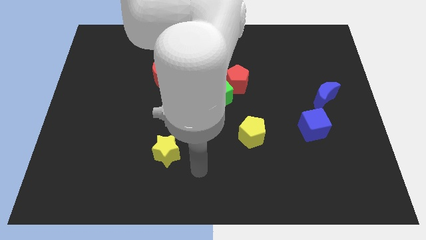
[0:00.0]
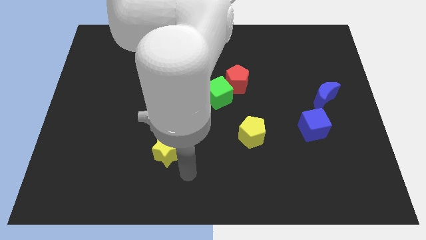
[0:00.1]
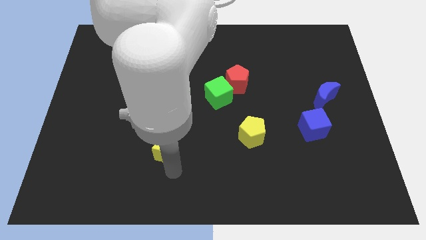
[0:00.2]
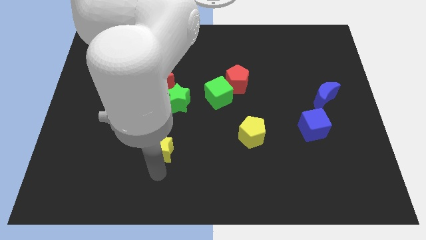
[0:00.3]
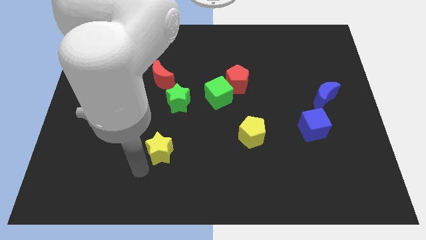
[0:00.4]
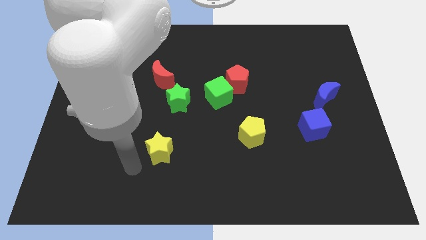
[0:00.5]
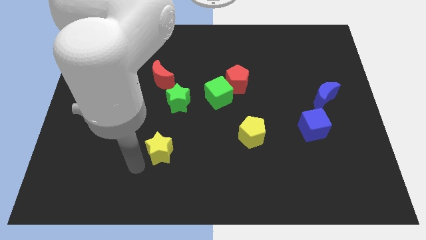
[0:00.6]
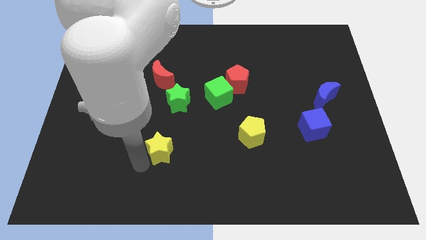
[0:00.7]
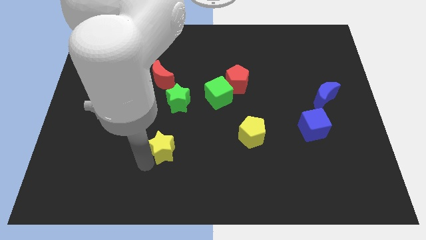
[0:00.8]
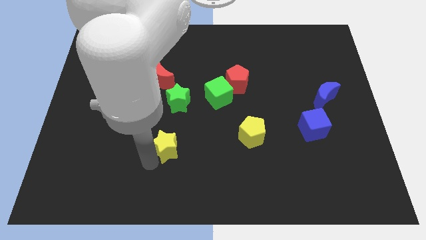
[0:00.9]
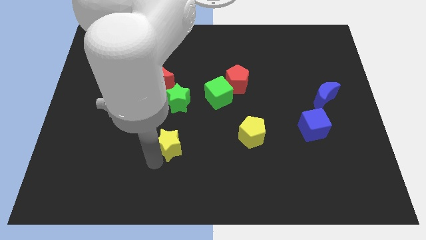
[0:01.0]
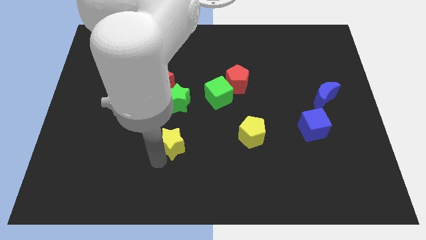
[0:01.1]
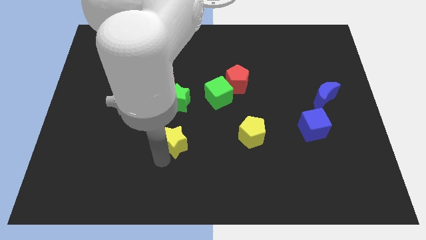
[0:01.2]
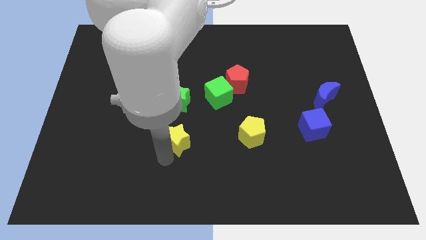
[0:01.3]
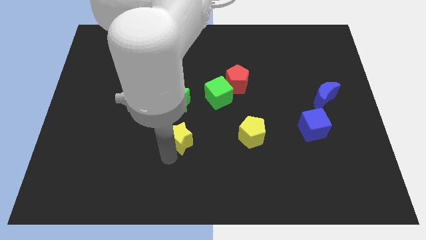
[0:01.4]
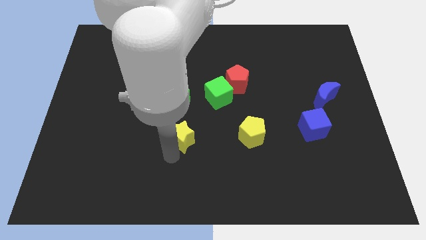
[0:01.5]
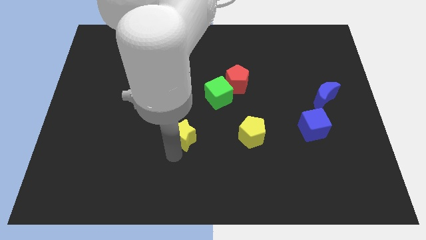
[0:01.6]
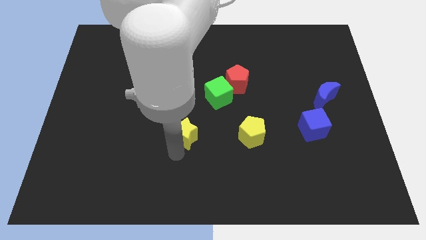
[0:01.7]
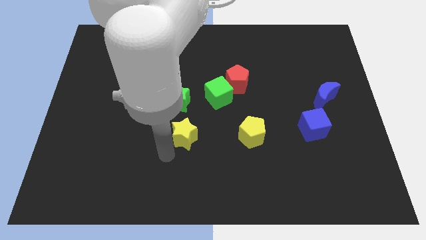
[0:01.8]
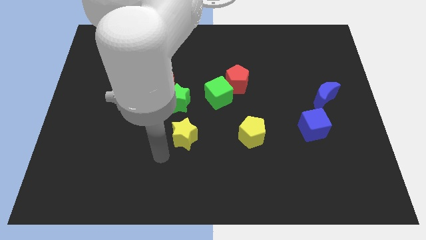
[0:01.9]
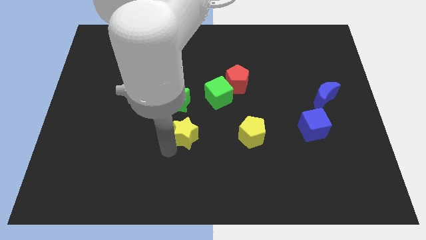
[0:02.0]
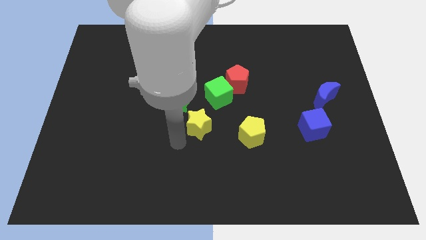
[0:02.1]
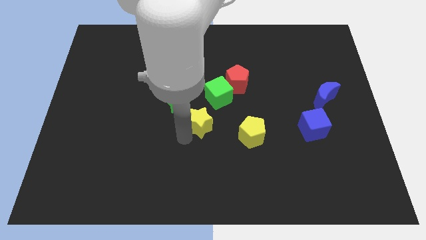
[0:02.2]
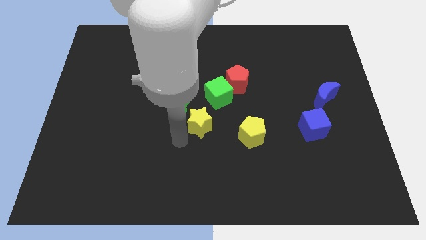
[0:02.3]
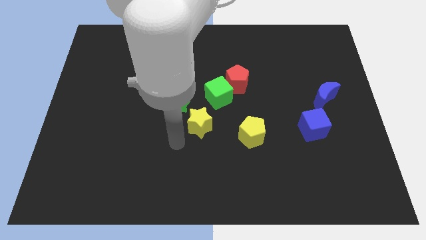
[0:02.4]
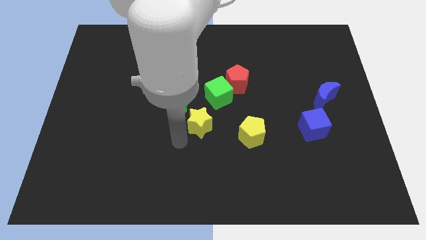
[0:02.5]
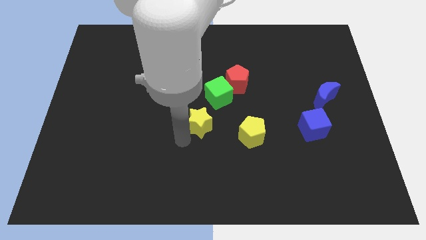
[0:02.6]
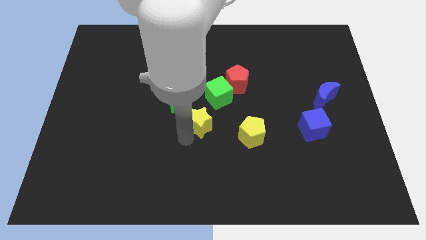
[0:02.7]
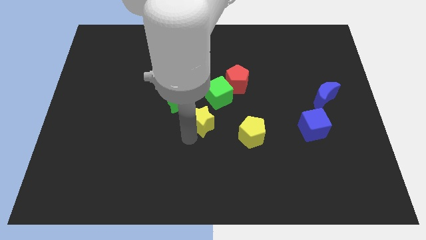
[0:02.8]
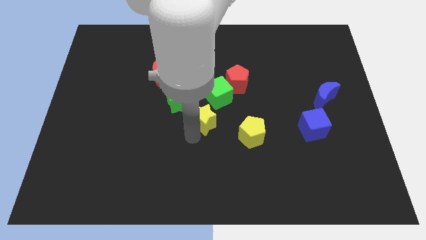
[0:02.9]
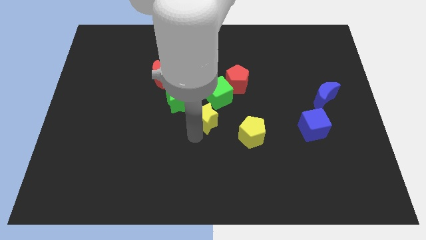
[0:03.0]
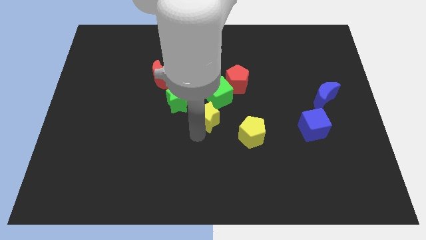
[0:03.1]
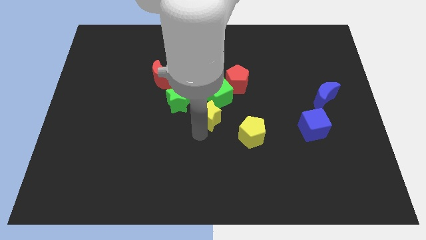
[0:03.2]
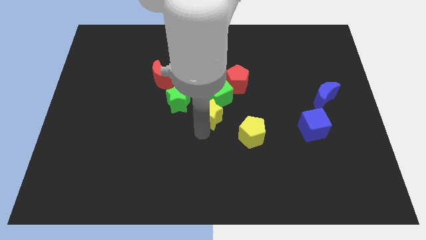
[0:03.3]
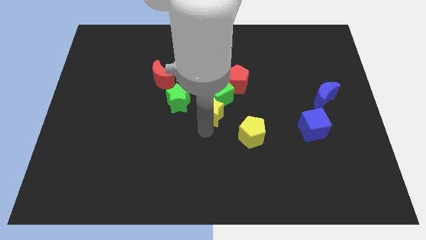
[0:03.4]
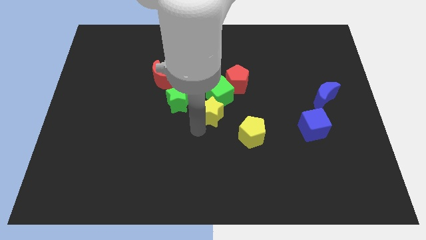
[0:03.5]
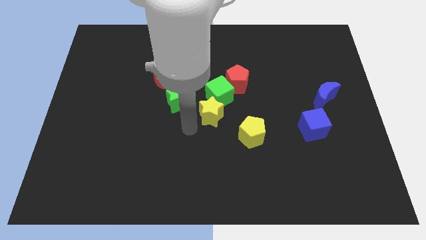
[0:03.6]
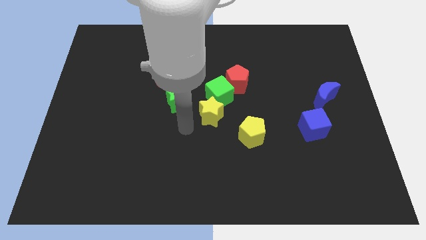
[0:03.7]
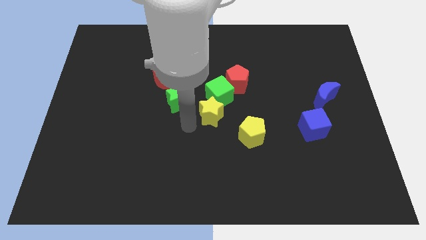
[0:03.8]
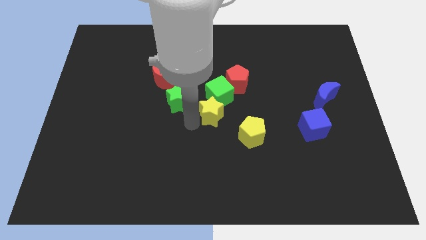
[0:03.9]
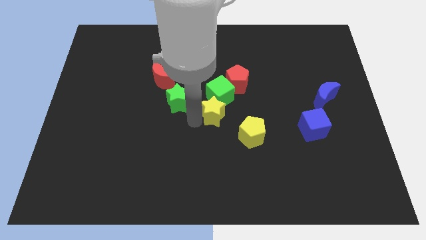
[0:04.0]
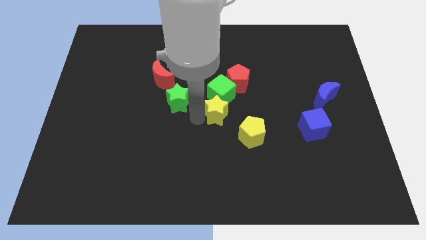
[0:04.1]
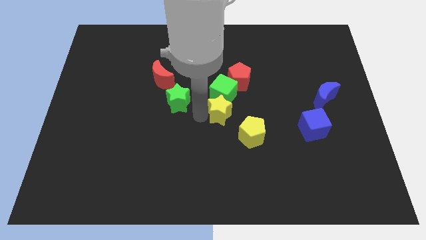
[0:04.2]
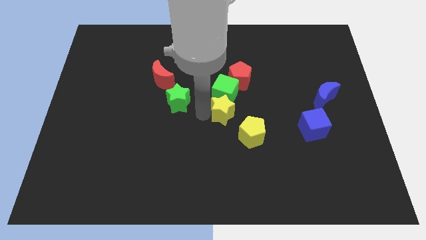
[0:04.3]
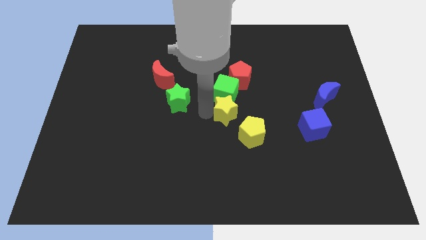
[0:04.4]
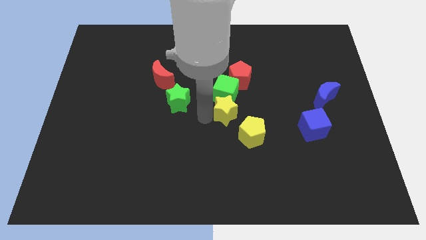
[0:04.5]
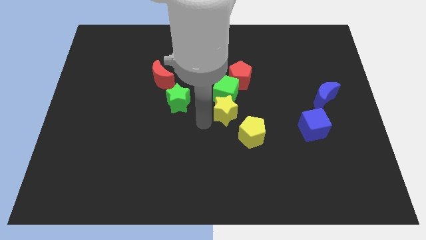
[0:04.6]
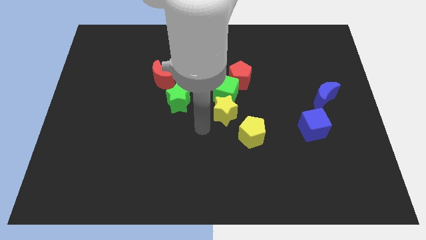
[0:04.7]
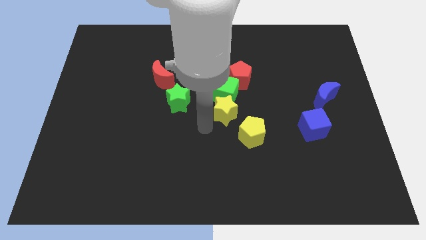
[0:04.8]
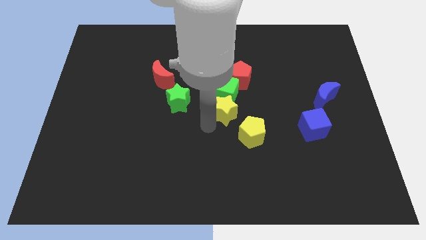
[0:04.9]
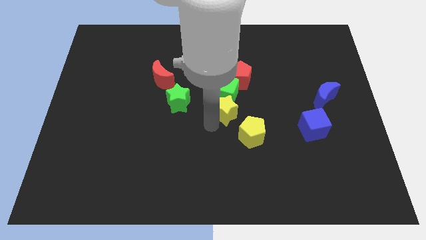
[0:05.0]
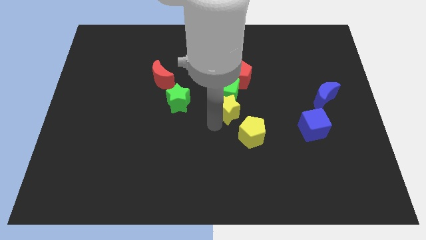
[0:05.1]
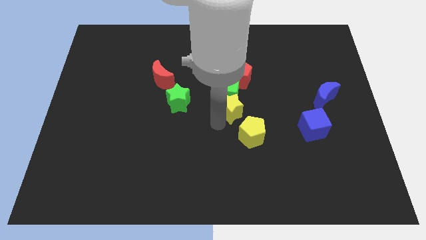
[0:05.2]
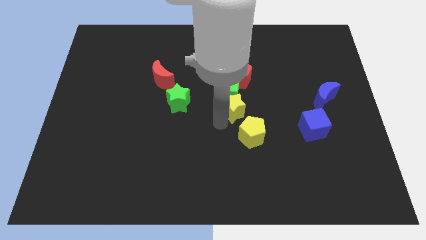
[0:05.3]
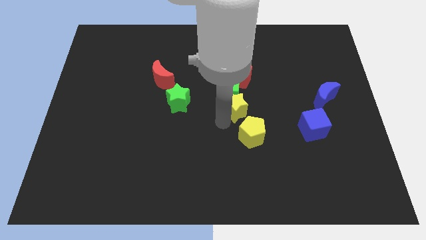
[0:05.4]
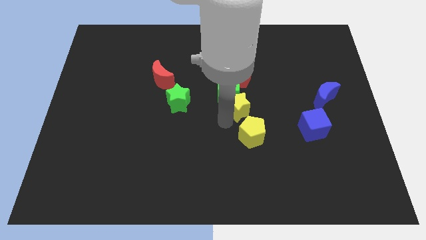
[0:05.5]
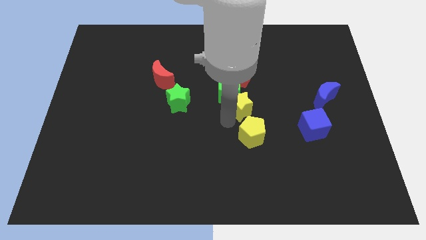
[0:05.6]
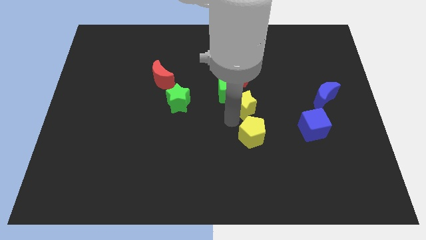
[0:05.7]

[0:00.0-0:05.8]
push the yellow star up and to the right diagonally

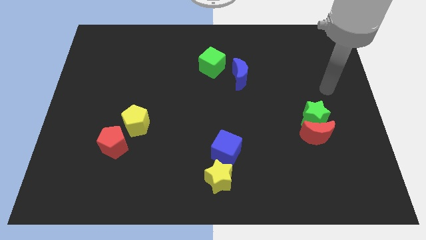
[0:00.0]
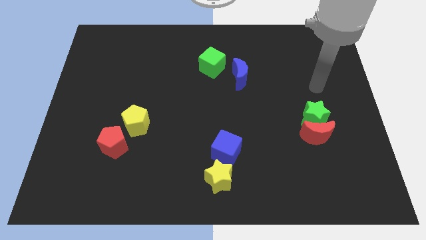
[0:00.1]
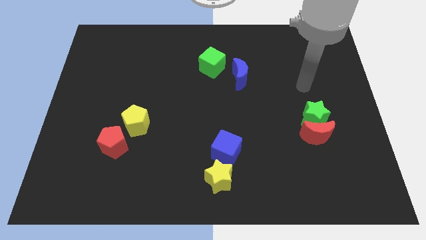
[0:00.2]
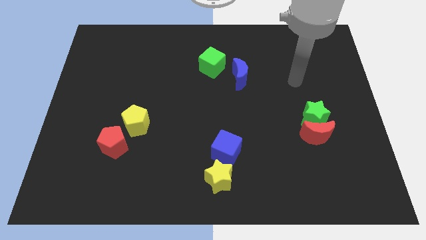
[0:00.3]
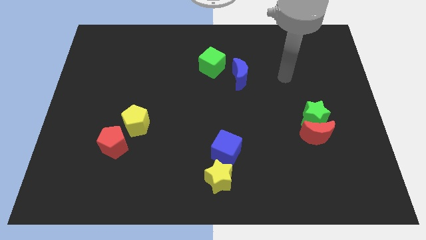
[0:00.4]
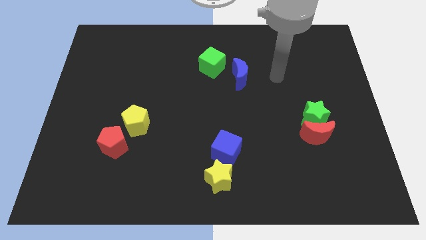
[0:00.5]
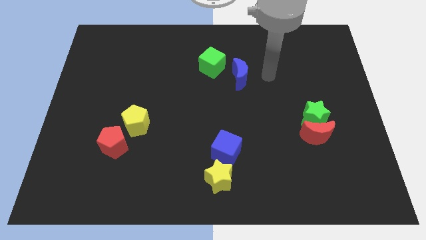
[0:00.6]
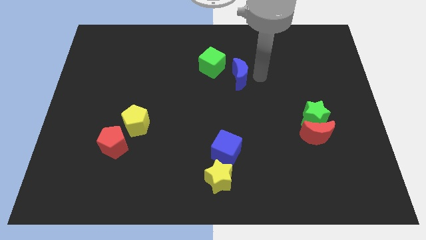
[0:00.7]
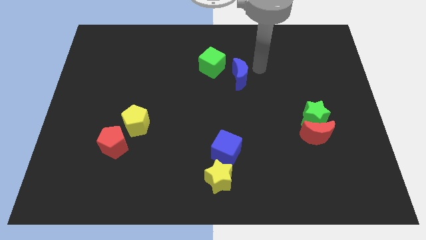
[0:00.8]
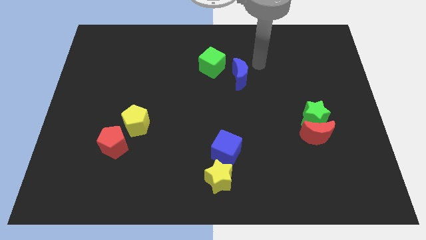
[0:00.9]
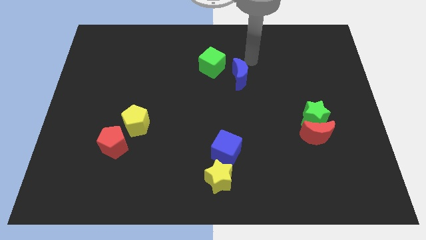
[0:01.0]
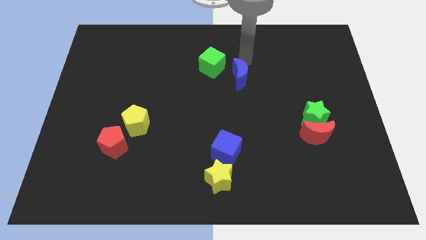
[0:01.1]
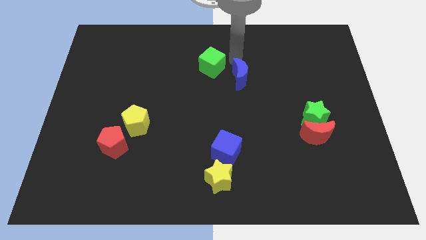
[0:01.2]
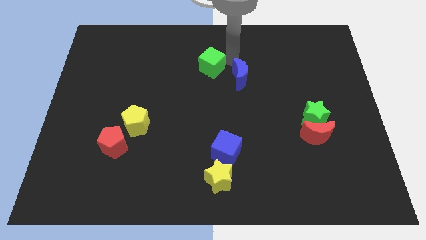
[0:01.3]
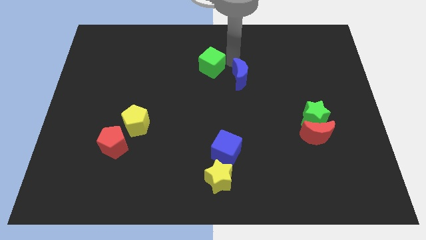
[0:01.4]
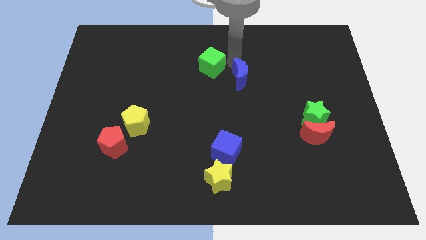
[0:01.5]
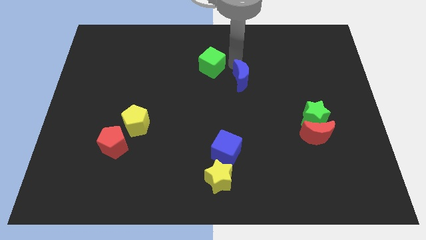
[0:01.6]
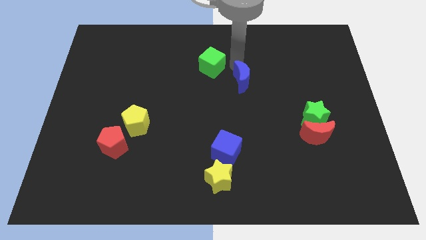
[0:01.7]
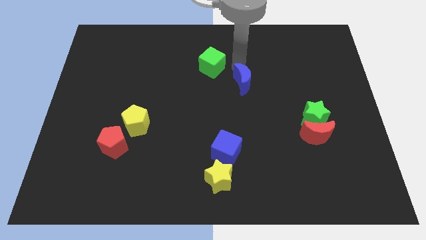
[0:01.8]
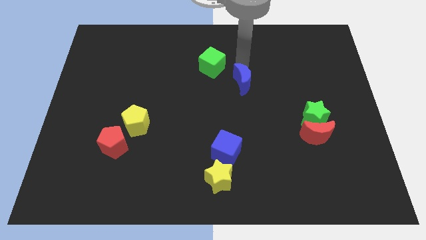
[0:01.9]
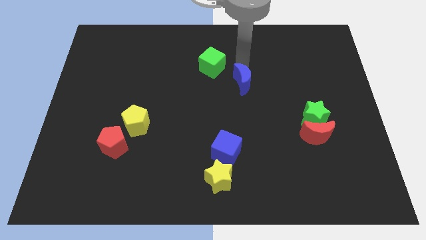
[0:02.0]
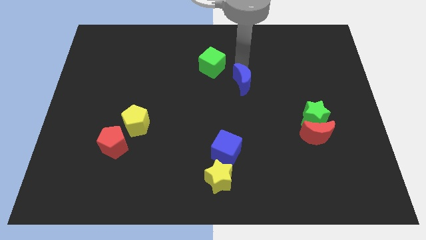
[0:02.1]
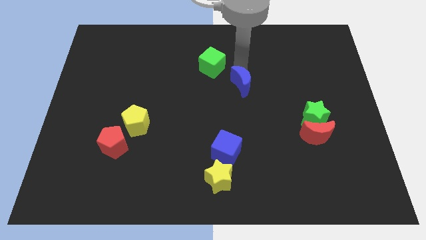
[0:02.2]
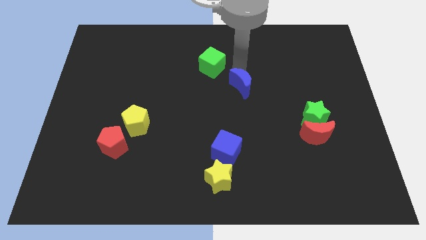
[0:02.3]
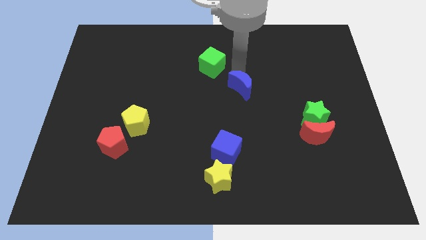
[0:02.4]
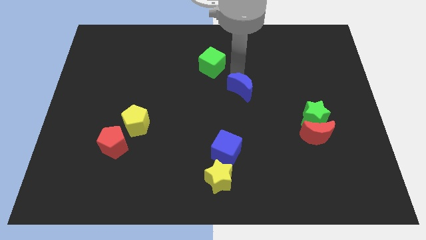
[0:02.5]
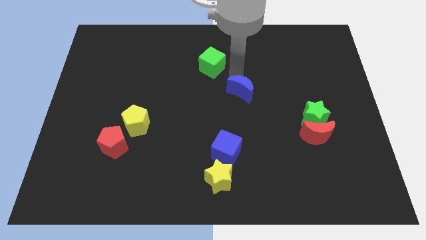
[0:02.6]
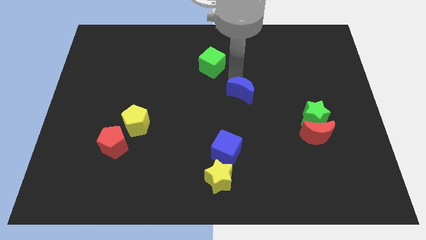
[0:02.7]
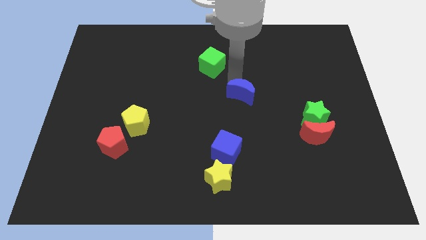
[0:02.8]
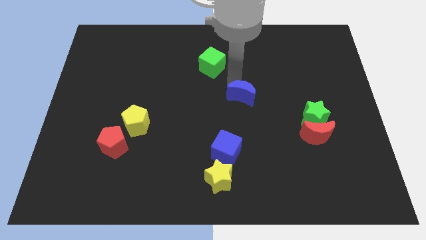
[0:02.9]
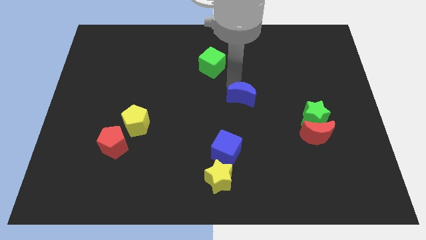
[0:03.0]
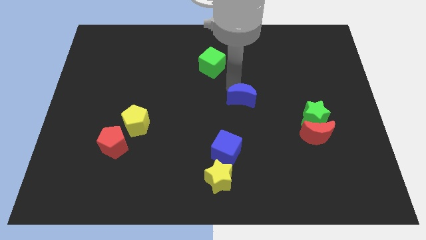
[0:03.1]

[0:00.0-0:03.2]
slightly move the blue moon down
